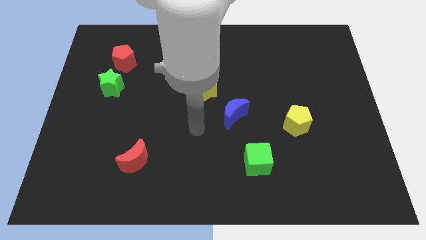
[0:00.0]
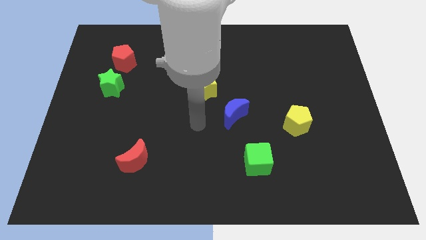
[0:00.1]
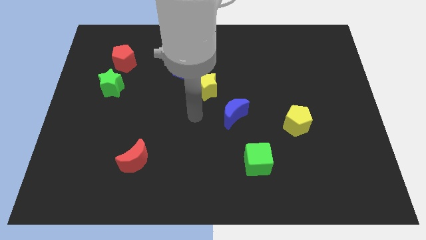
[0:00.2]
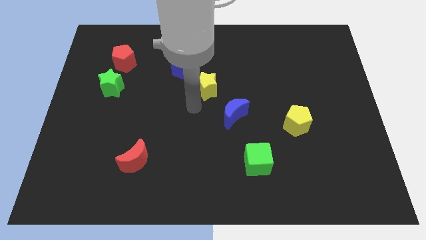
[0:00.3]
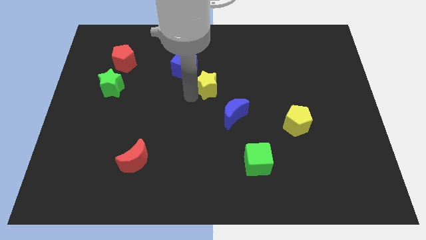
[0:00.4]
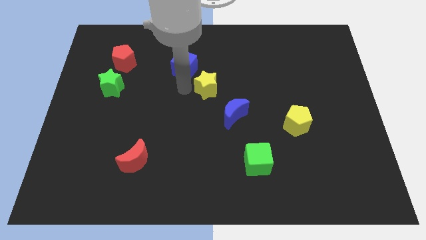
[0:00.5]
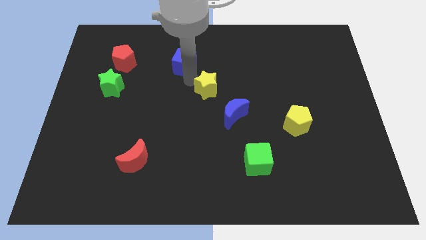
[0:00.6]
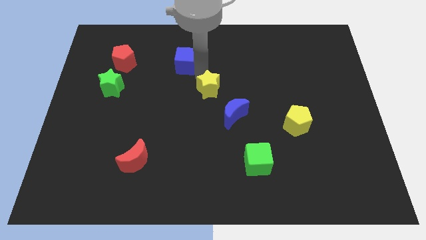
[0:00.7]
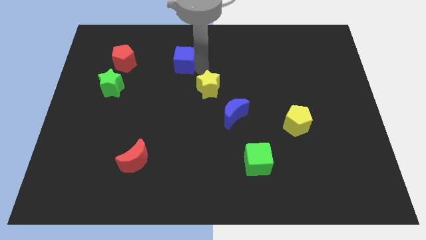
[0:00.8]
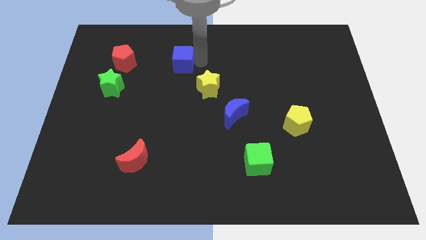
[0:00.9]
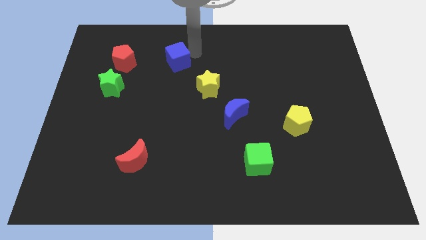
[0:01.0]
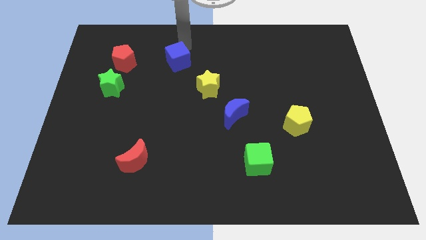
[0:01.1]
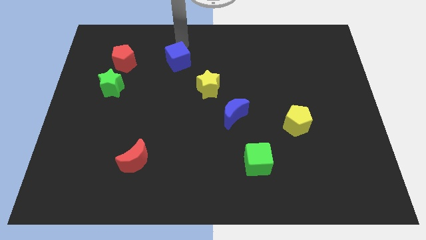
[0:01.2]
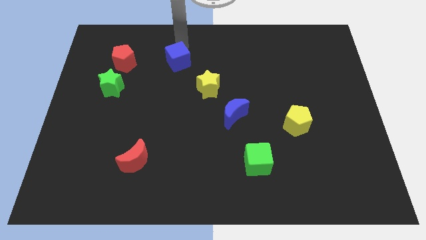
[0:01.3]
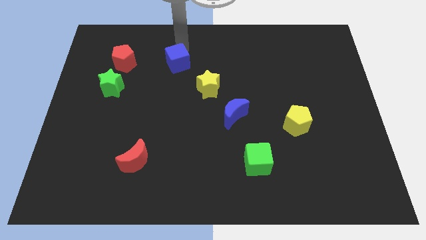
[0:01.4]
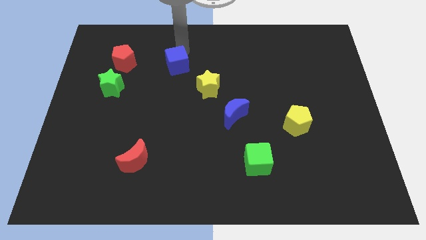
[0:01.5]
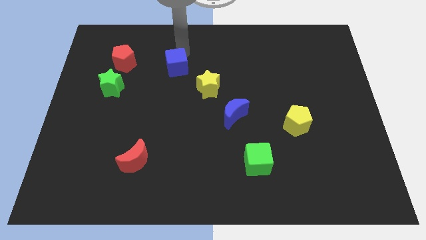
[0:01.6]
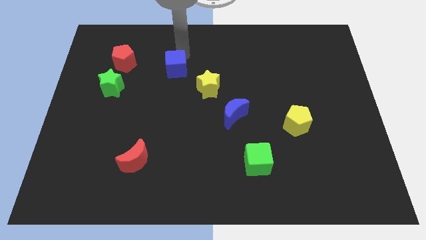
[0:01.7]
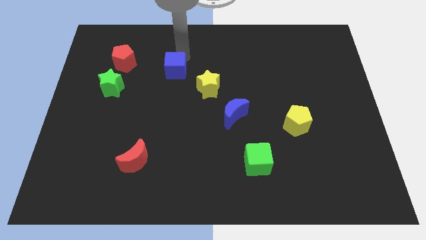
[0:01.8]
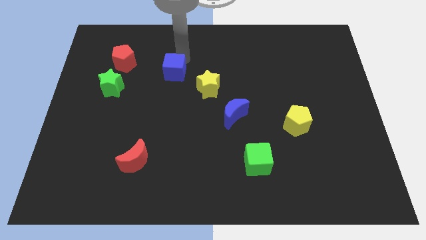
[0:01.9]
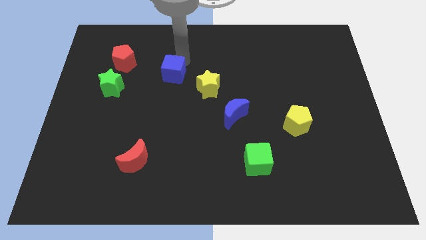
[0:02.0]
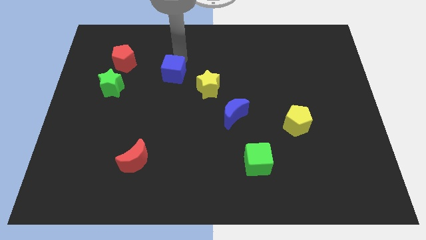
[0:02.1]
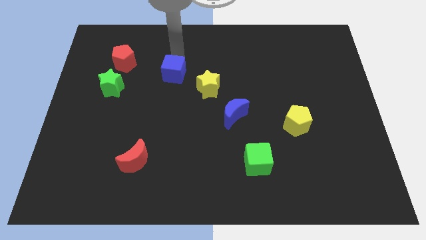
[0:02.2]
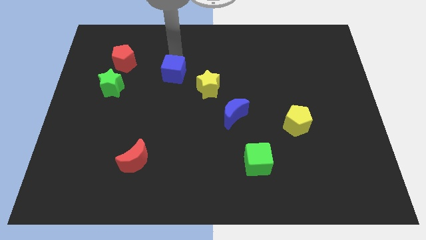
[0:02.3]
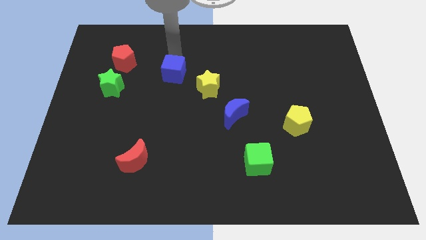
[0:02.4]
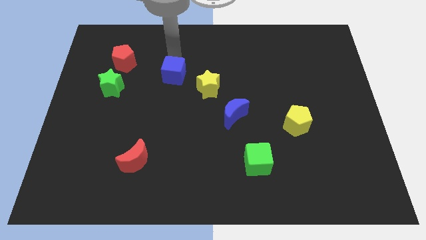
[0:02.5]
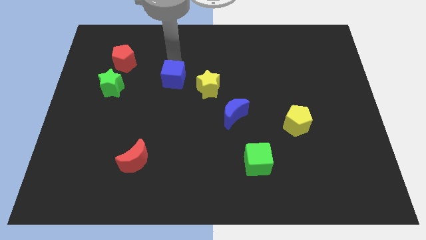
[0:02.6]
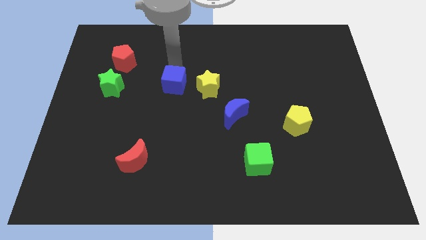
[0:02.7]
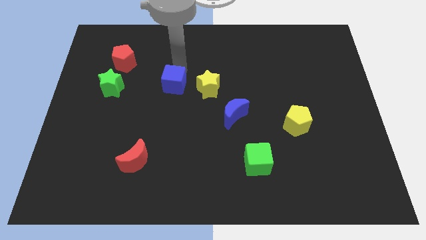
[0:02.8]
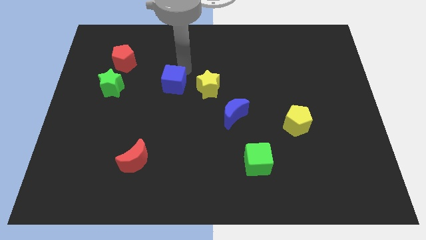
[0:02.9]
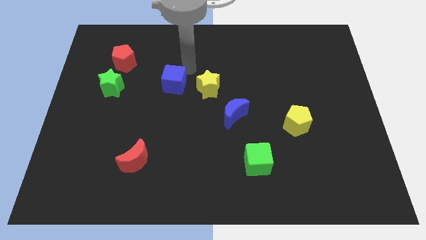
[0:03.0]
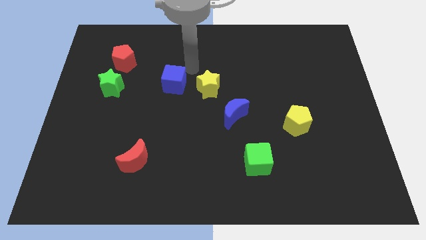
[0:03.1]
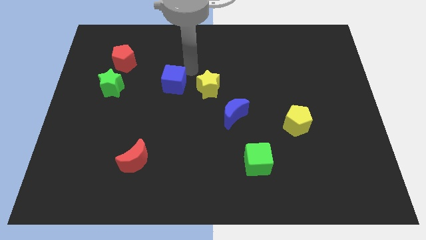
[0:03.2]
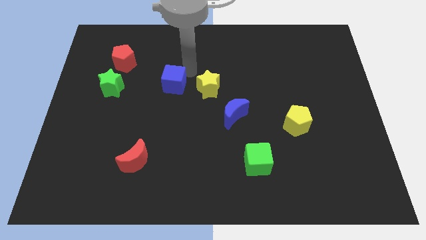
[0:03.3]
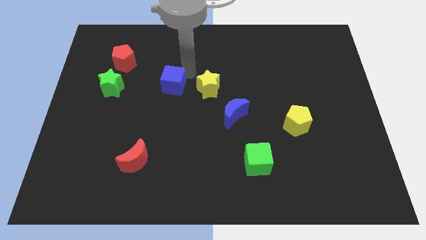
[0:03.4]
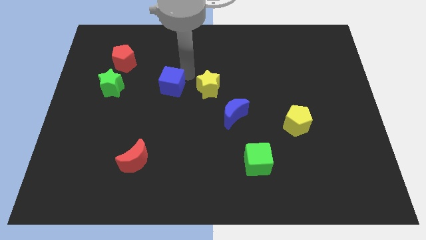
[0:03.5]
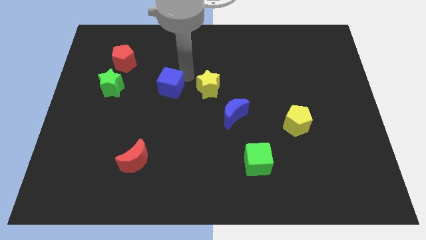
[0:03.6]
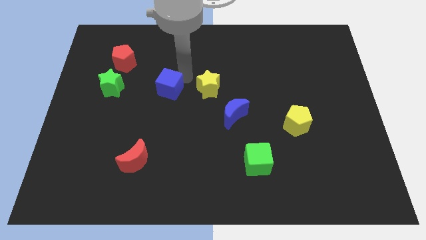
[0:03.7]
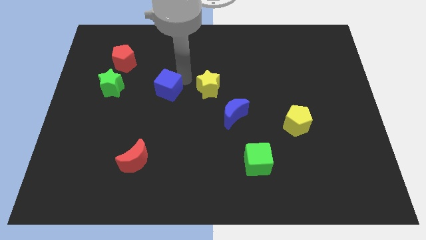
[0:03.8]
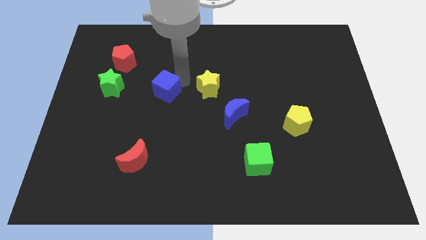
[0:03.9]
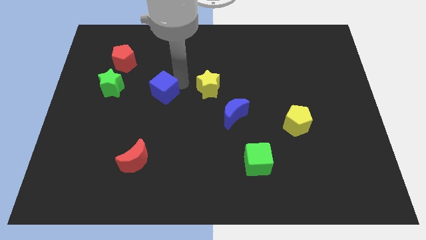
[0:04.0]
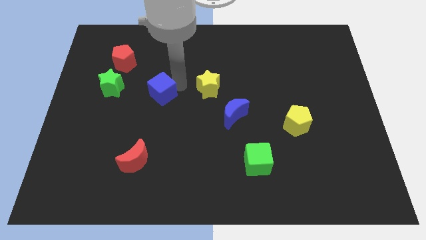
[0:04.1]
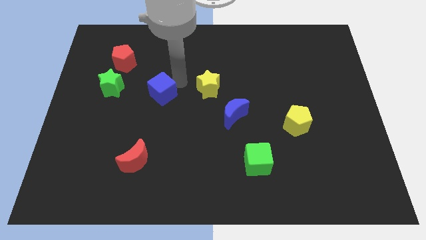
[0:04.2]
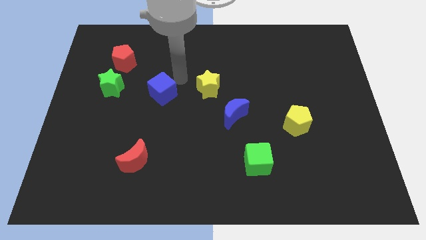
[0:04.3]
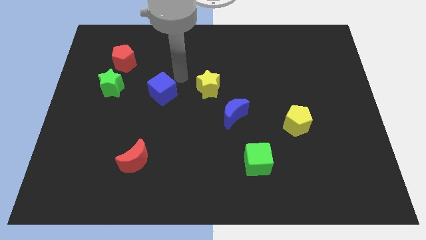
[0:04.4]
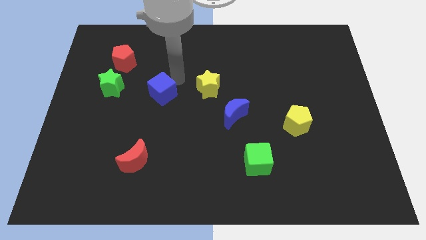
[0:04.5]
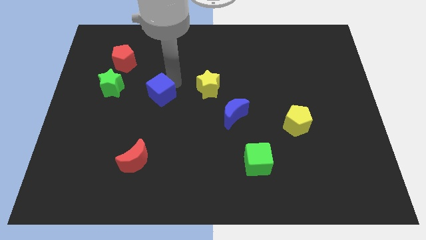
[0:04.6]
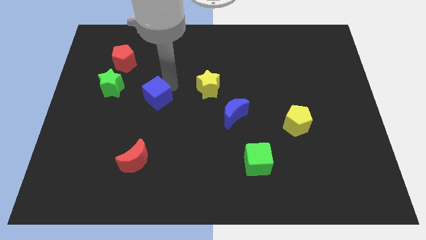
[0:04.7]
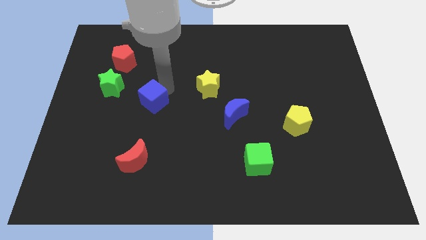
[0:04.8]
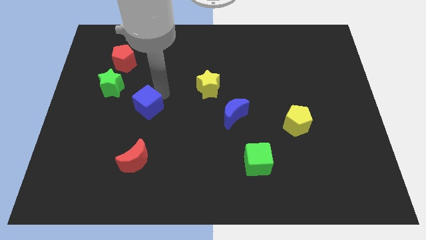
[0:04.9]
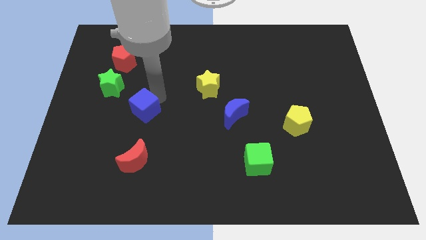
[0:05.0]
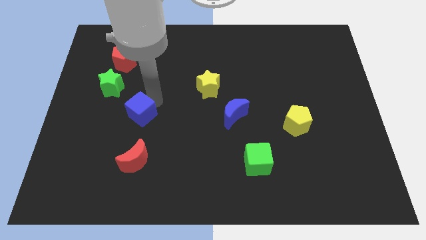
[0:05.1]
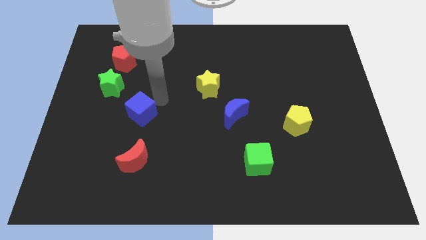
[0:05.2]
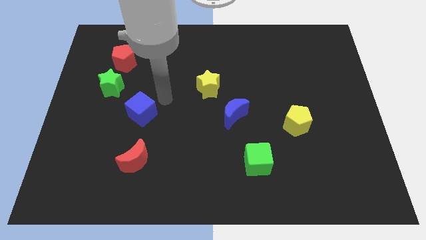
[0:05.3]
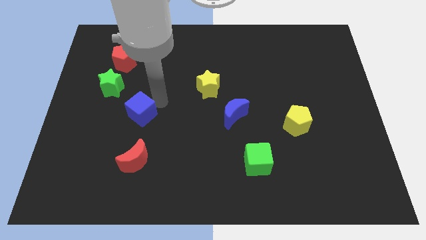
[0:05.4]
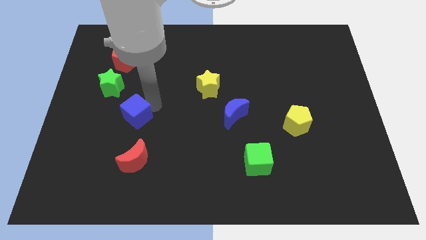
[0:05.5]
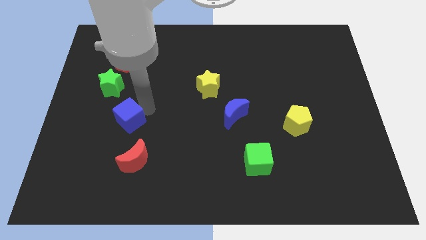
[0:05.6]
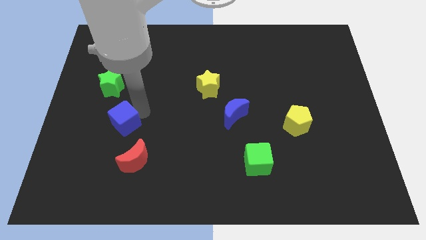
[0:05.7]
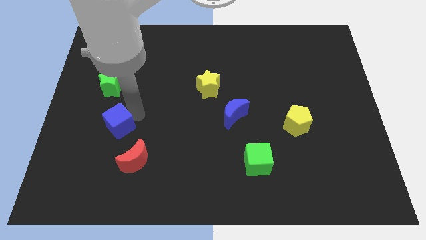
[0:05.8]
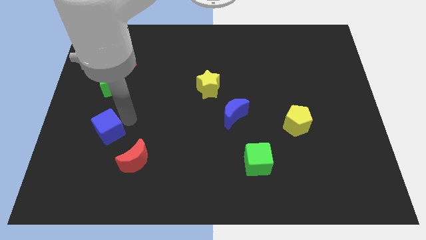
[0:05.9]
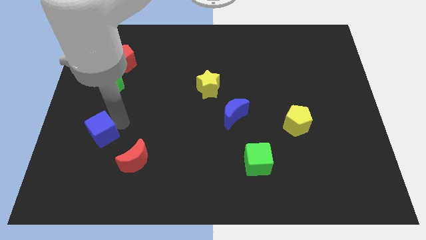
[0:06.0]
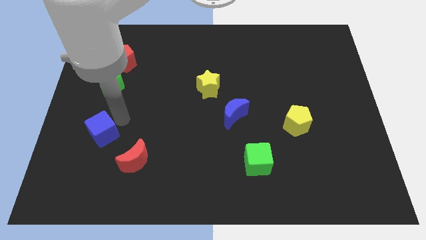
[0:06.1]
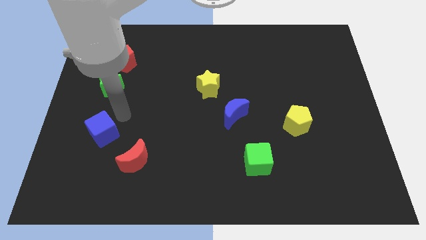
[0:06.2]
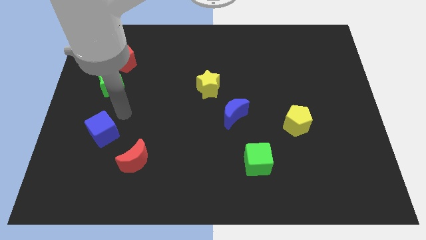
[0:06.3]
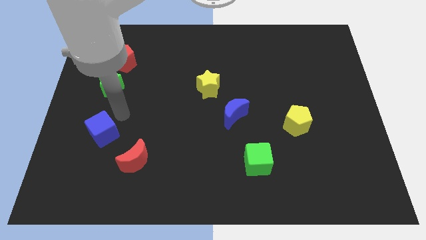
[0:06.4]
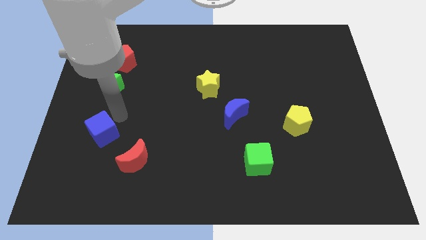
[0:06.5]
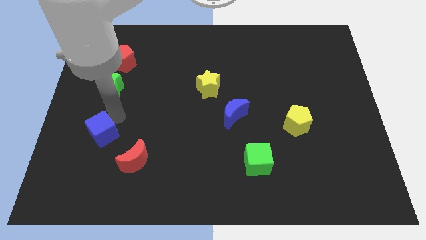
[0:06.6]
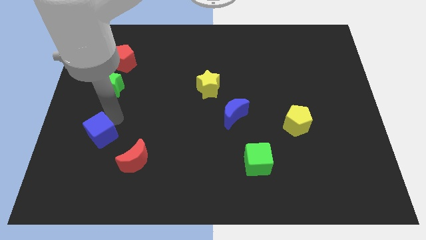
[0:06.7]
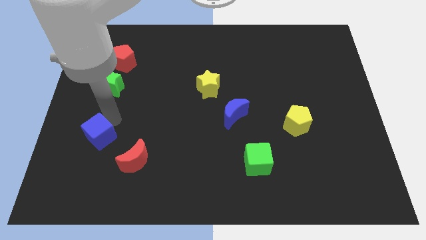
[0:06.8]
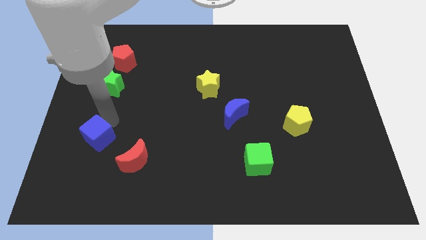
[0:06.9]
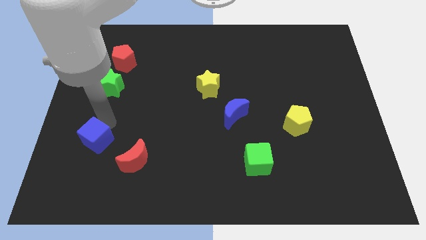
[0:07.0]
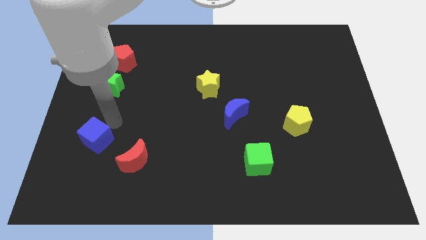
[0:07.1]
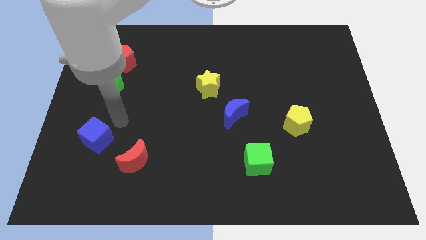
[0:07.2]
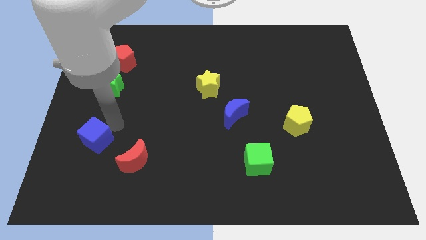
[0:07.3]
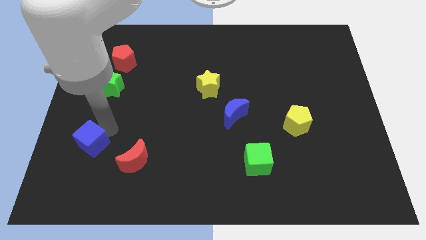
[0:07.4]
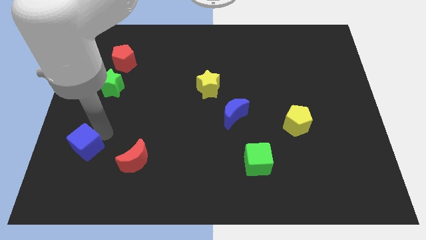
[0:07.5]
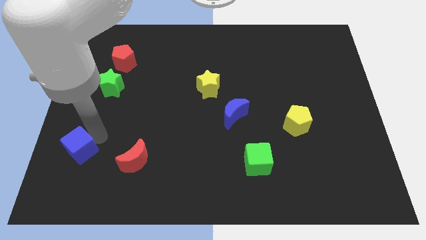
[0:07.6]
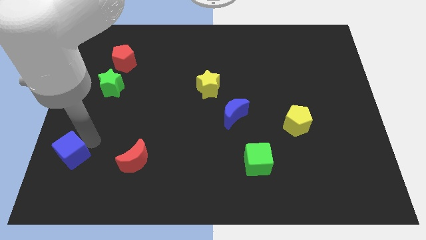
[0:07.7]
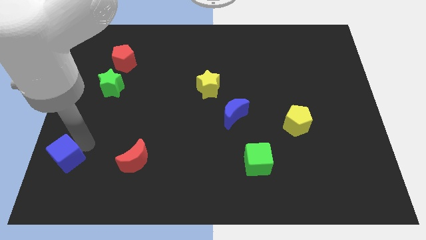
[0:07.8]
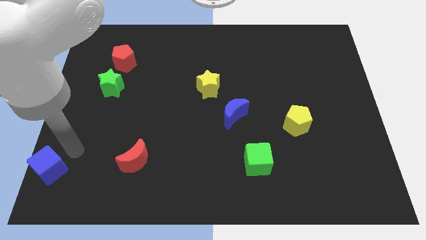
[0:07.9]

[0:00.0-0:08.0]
put the blue cube to the lower left corner
